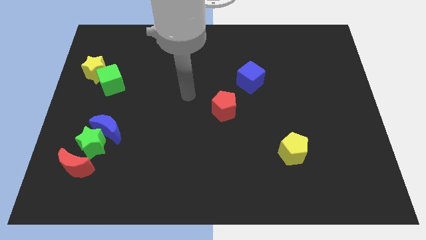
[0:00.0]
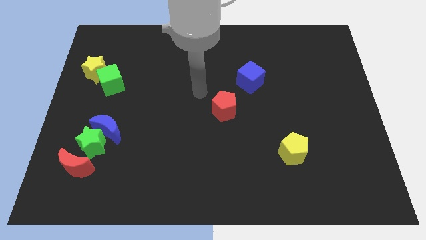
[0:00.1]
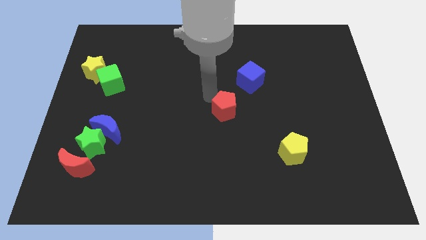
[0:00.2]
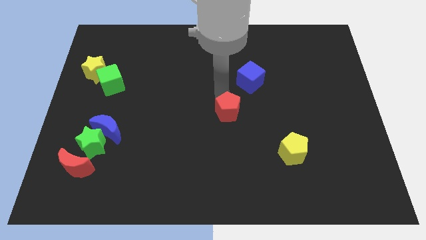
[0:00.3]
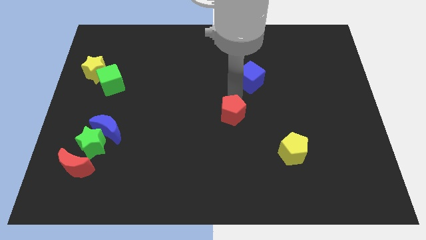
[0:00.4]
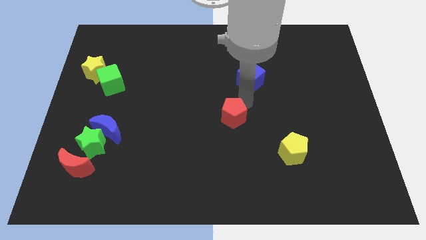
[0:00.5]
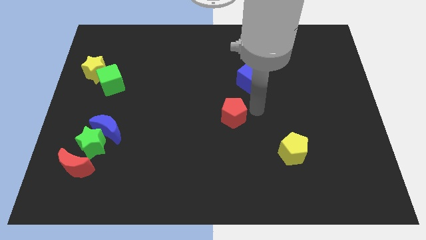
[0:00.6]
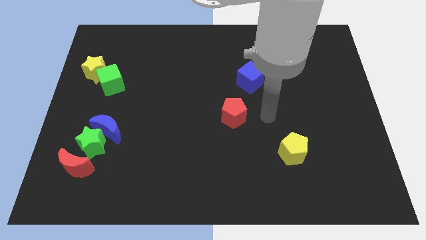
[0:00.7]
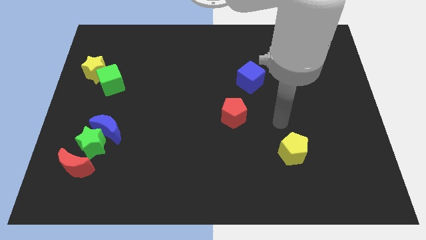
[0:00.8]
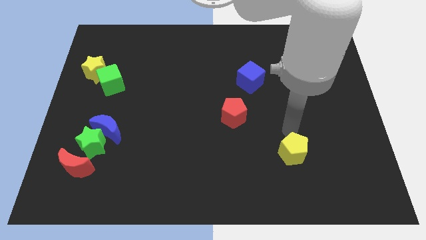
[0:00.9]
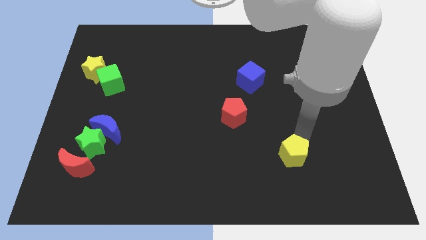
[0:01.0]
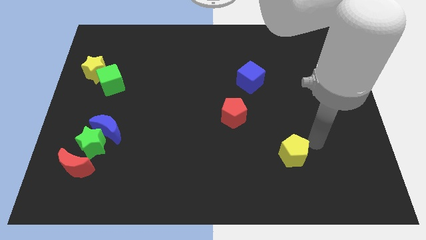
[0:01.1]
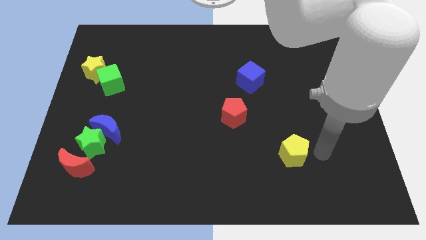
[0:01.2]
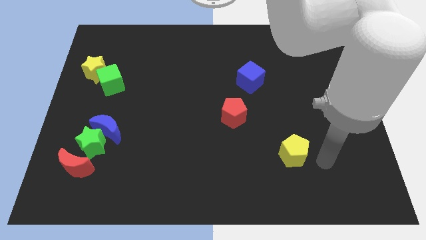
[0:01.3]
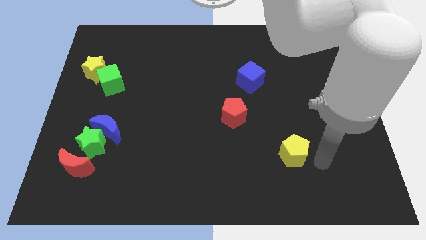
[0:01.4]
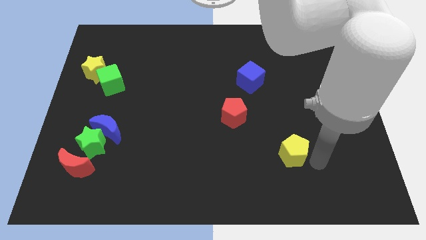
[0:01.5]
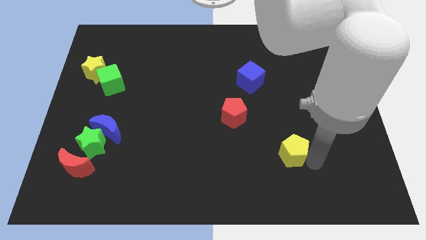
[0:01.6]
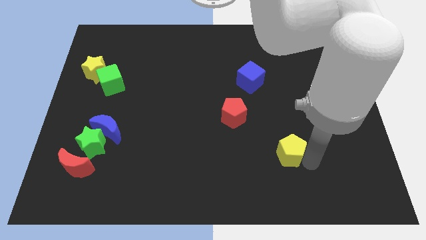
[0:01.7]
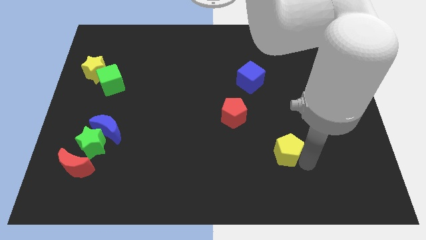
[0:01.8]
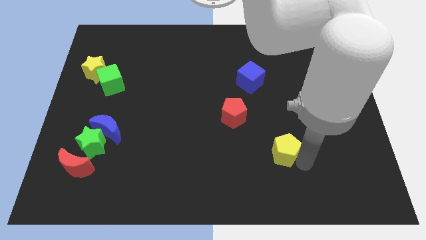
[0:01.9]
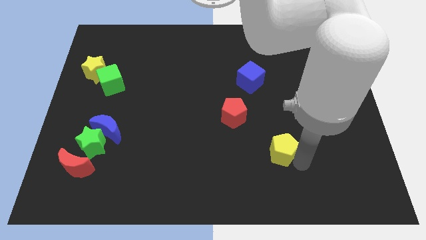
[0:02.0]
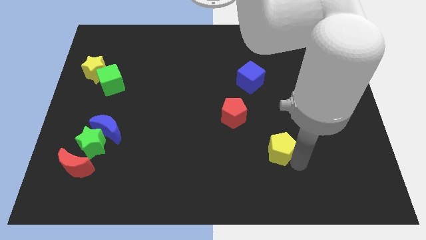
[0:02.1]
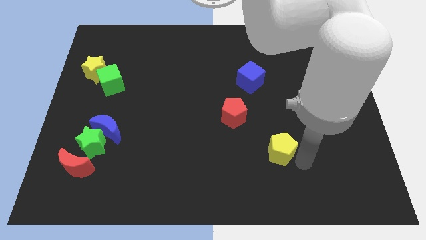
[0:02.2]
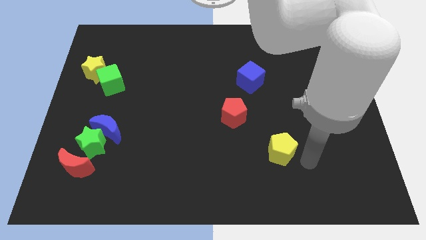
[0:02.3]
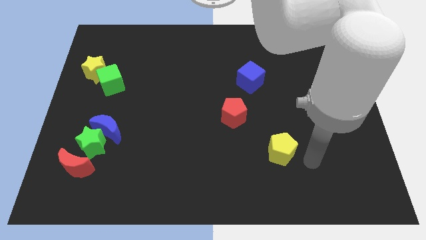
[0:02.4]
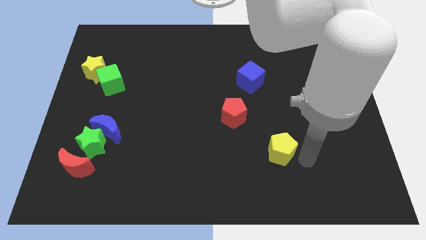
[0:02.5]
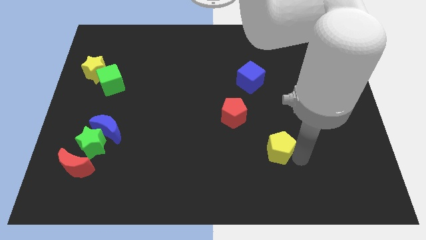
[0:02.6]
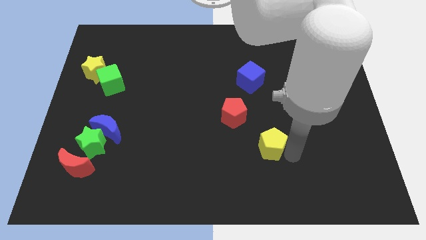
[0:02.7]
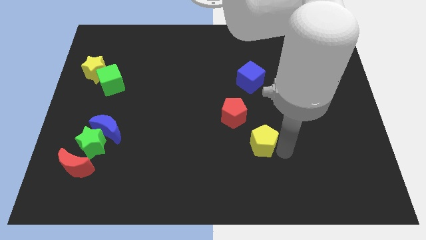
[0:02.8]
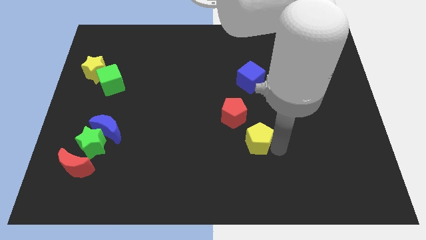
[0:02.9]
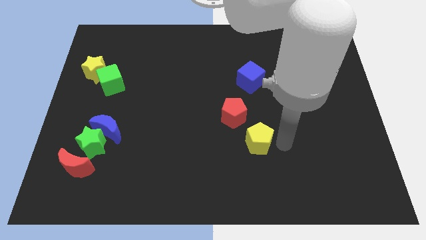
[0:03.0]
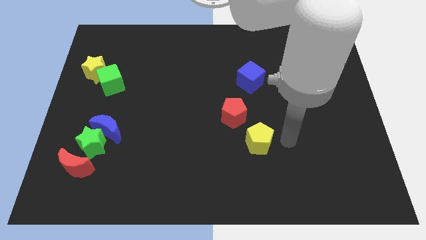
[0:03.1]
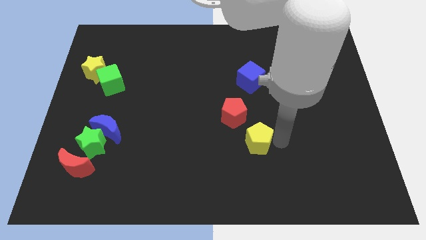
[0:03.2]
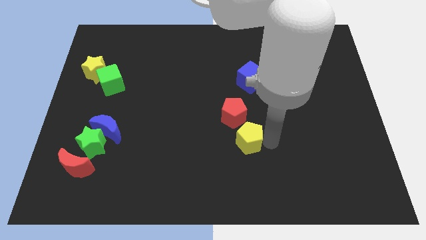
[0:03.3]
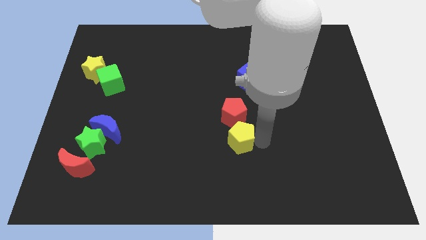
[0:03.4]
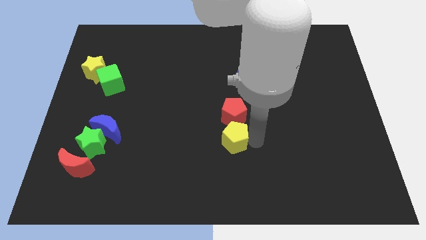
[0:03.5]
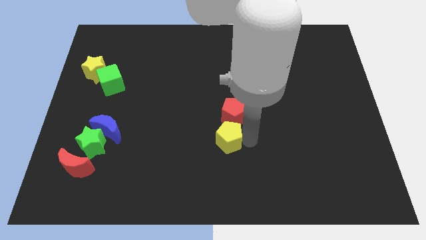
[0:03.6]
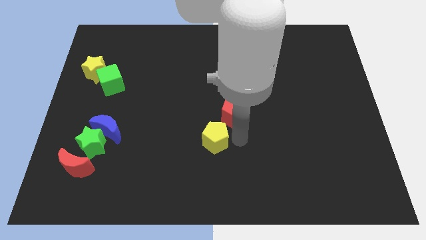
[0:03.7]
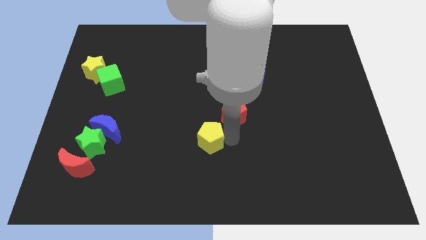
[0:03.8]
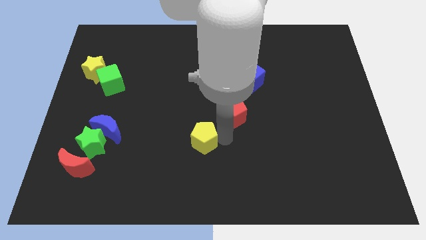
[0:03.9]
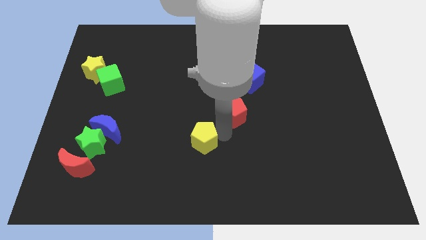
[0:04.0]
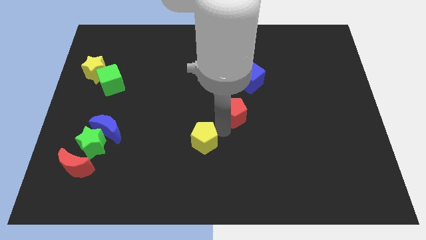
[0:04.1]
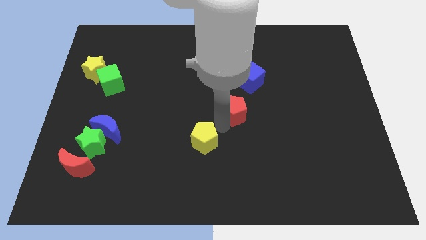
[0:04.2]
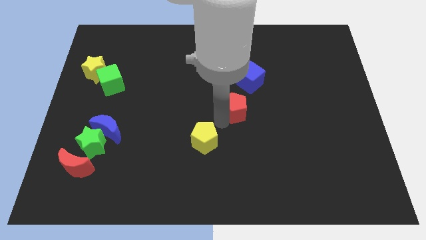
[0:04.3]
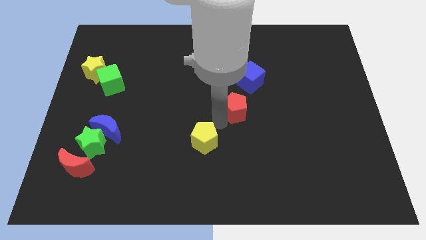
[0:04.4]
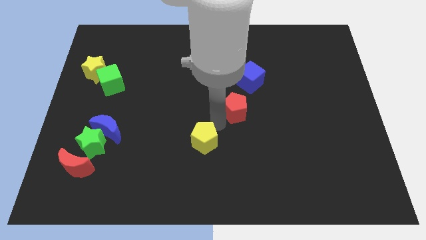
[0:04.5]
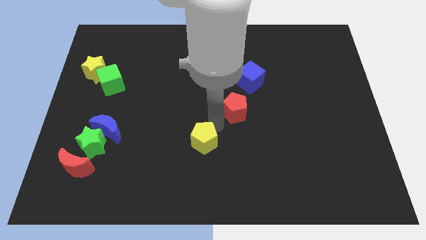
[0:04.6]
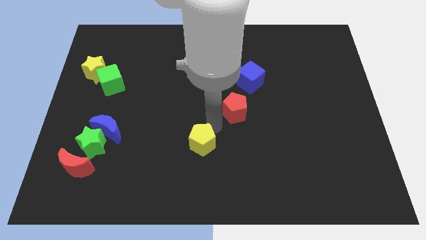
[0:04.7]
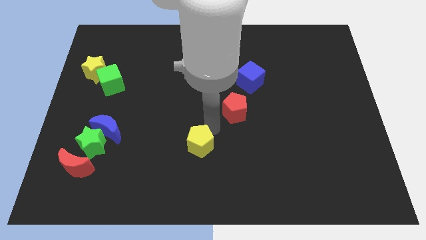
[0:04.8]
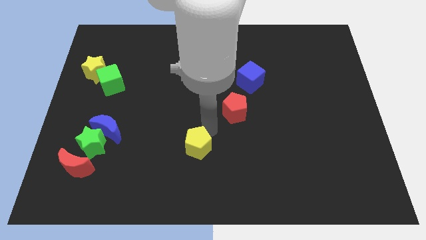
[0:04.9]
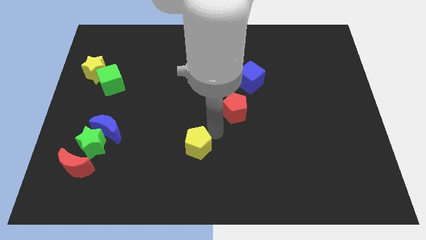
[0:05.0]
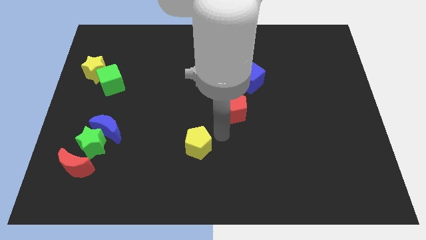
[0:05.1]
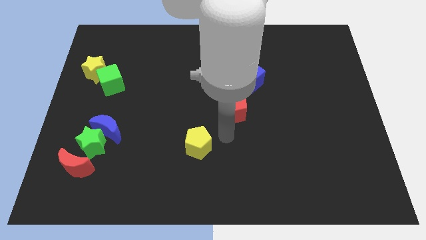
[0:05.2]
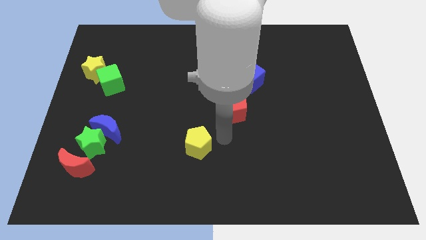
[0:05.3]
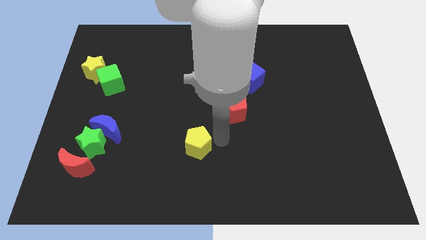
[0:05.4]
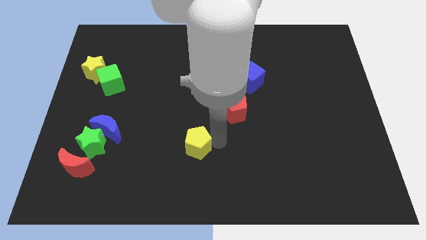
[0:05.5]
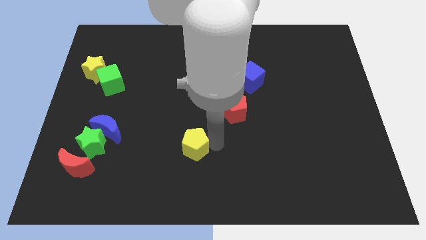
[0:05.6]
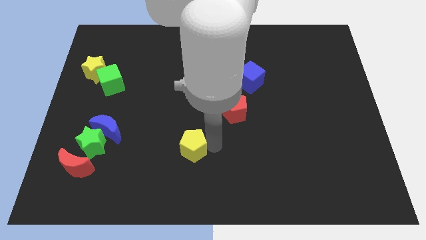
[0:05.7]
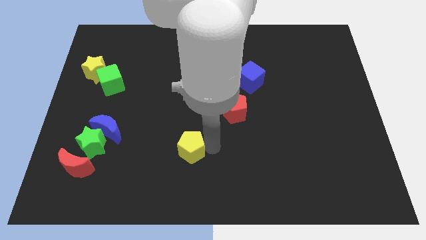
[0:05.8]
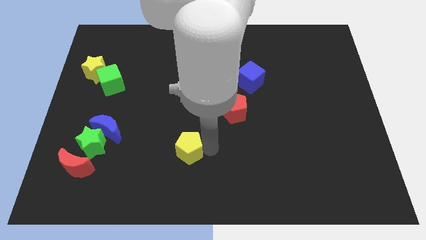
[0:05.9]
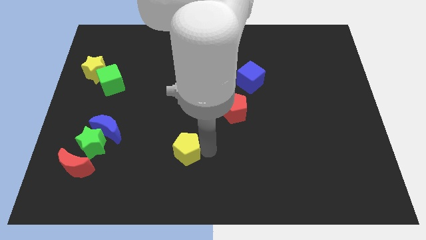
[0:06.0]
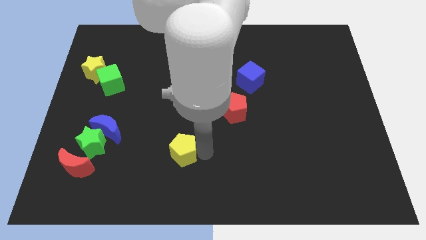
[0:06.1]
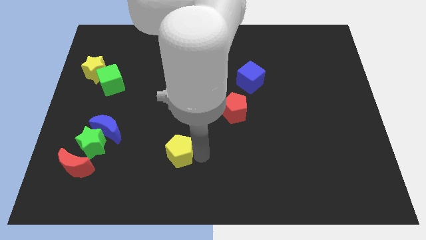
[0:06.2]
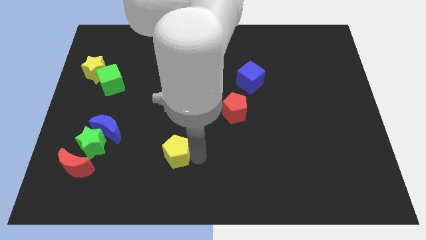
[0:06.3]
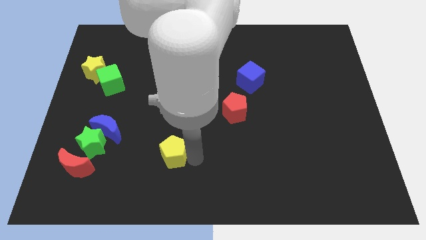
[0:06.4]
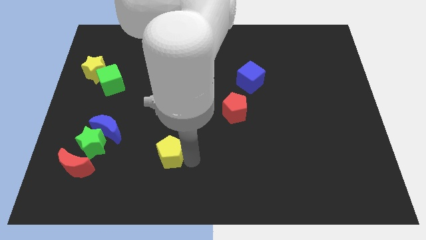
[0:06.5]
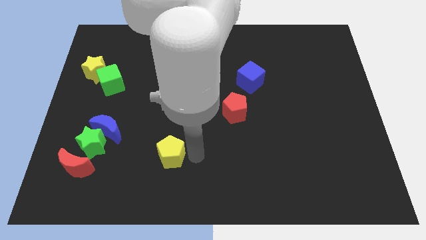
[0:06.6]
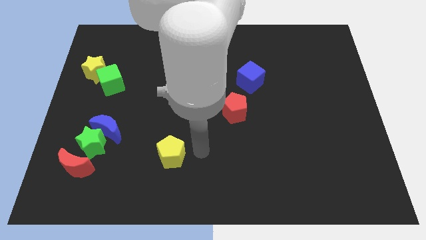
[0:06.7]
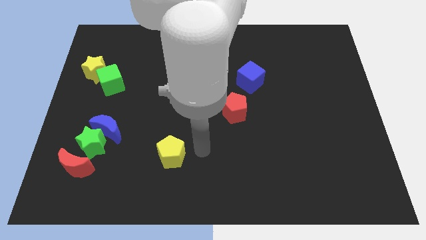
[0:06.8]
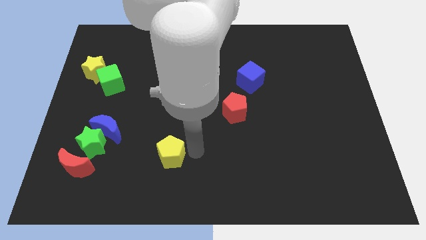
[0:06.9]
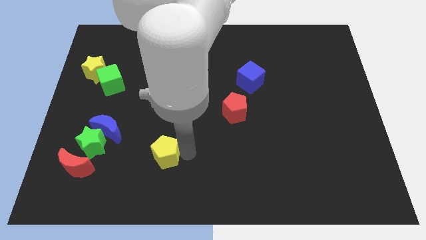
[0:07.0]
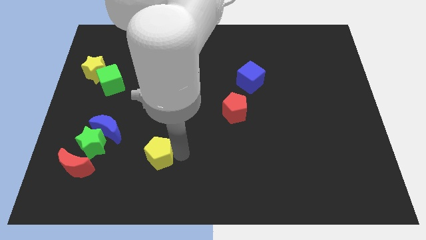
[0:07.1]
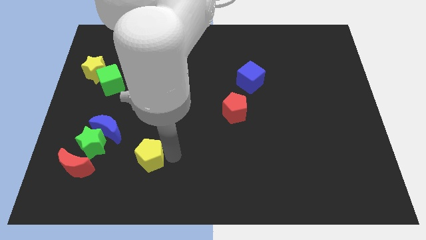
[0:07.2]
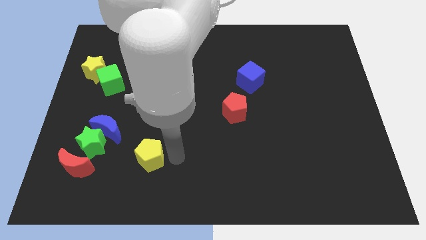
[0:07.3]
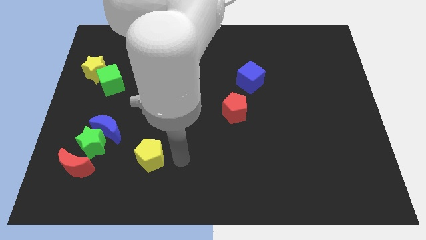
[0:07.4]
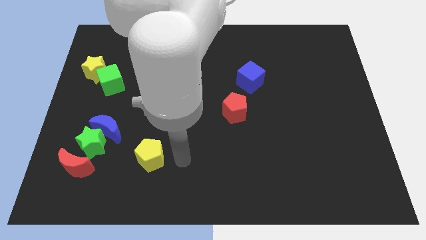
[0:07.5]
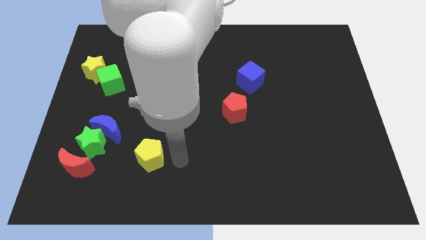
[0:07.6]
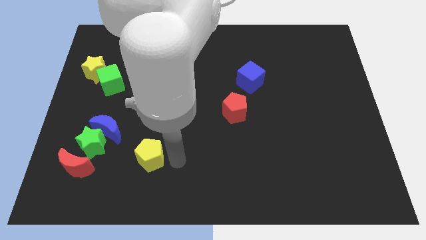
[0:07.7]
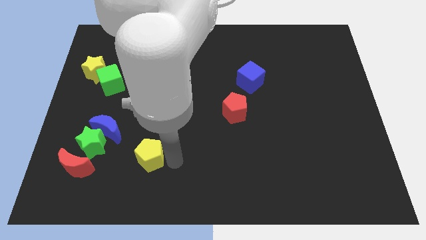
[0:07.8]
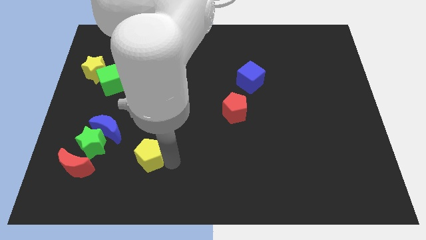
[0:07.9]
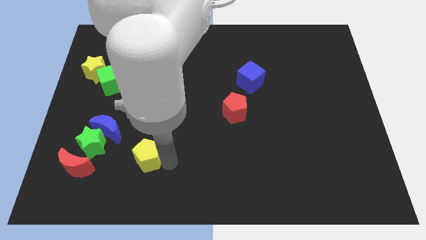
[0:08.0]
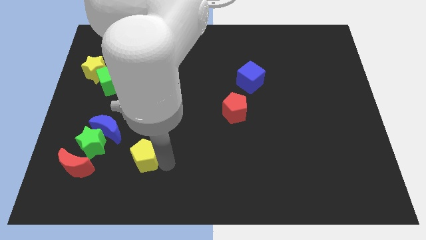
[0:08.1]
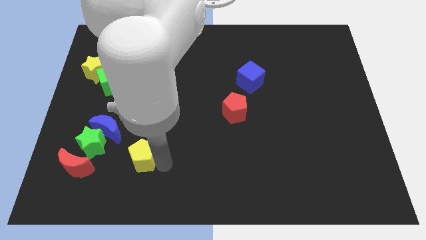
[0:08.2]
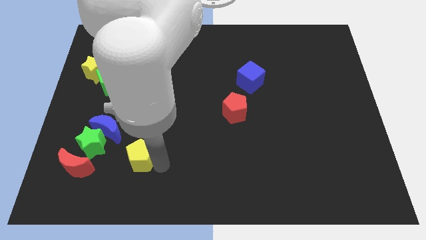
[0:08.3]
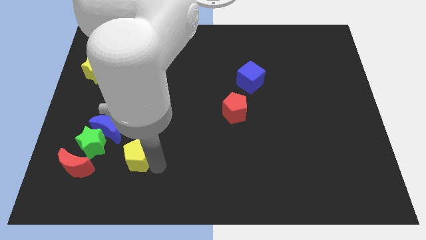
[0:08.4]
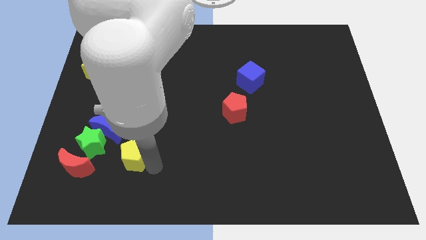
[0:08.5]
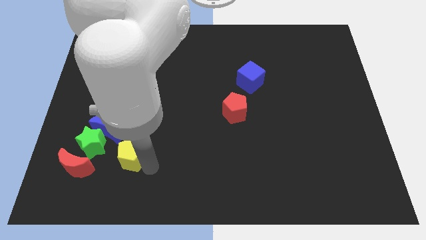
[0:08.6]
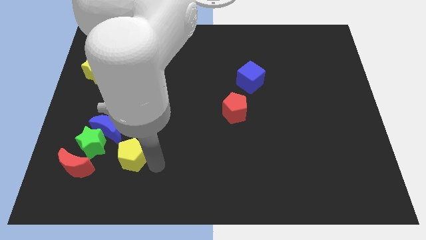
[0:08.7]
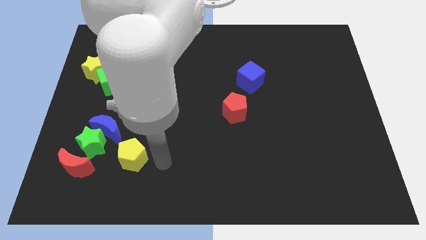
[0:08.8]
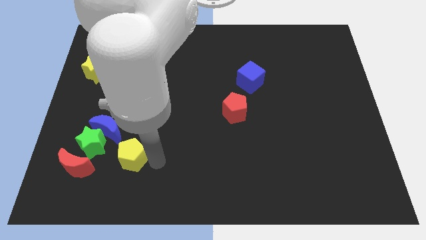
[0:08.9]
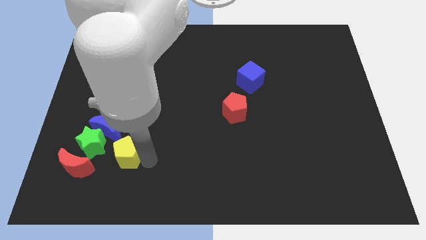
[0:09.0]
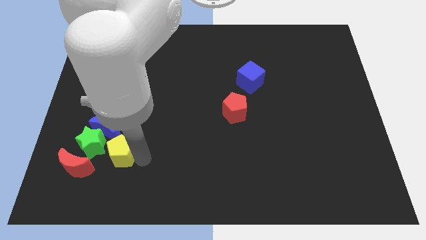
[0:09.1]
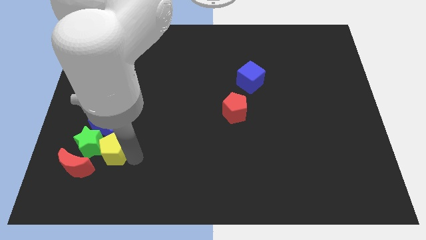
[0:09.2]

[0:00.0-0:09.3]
push the yellow pentagon to the green star
